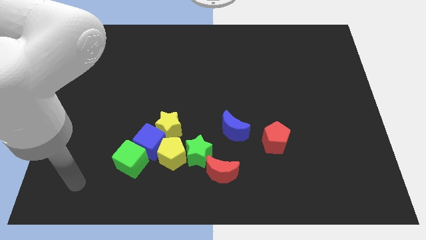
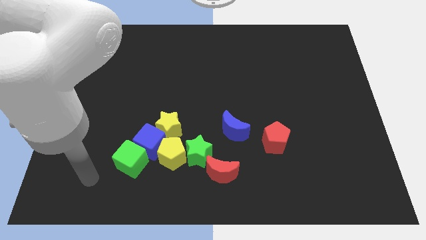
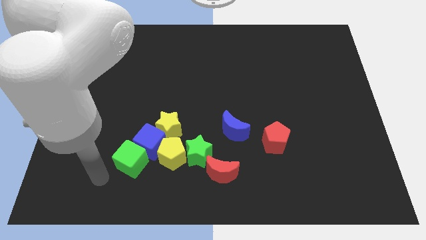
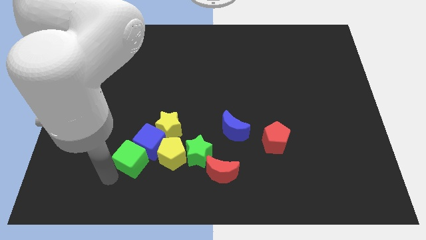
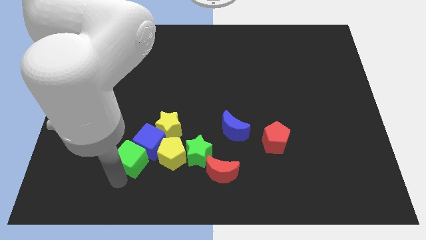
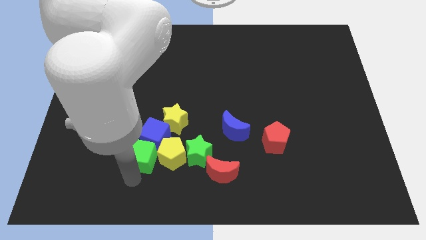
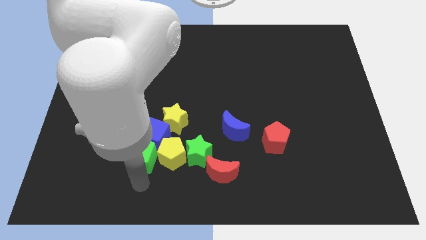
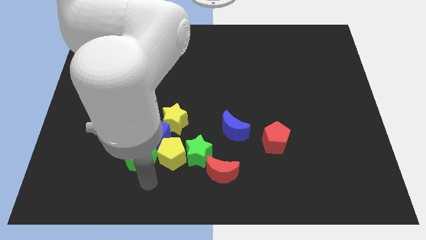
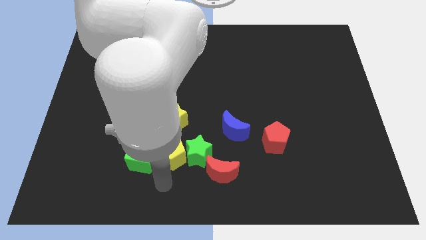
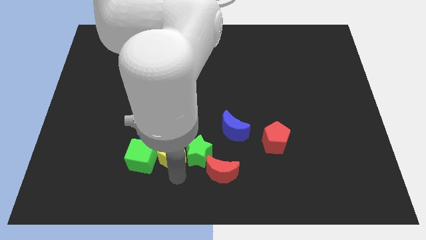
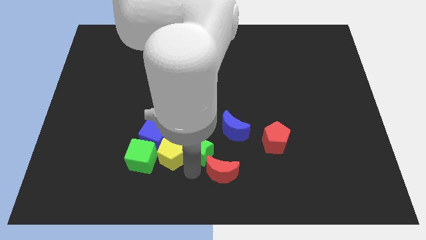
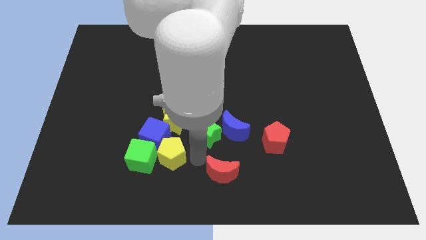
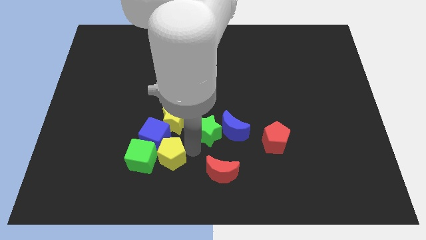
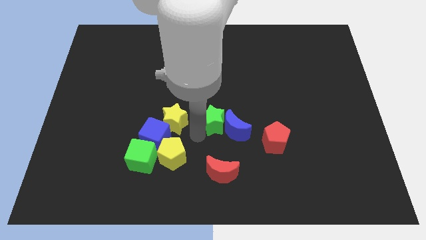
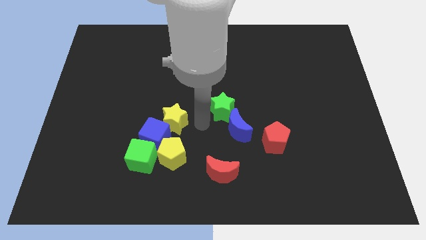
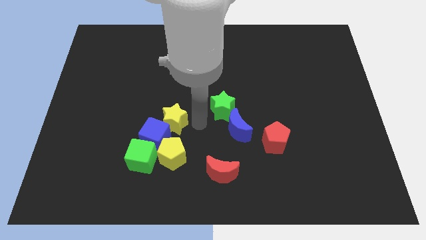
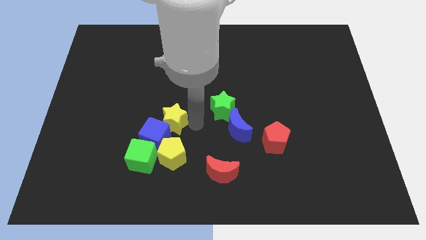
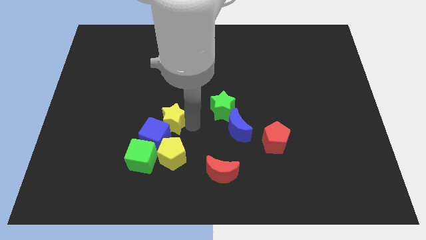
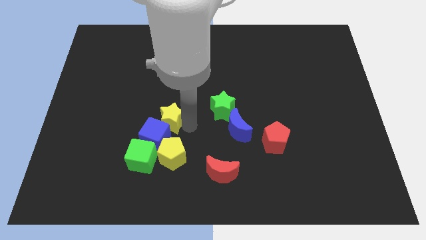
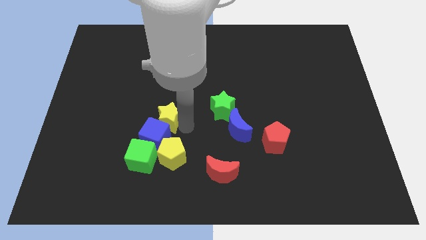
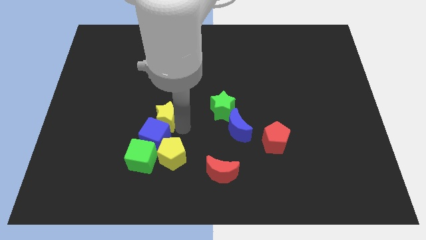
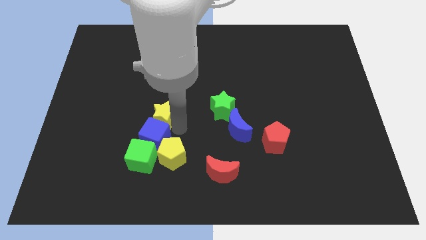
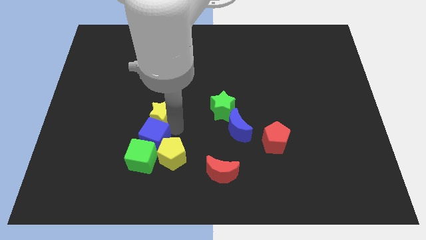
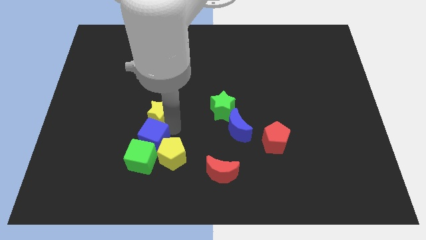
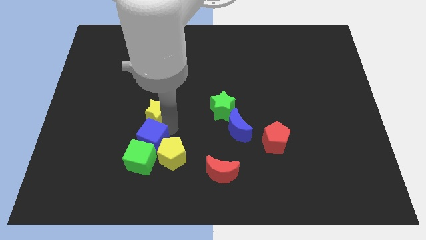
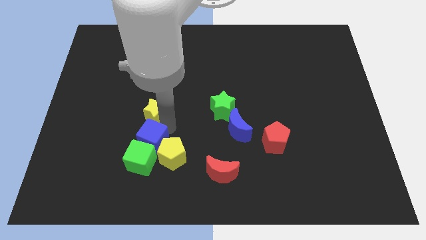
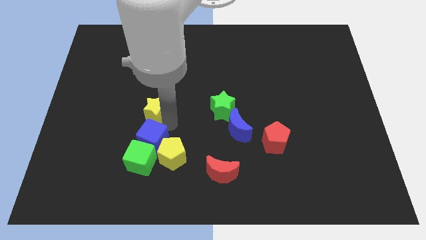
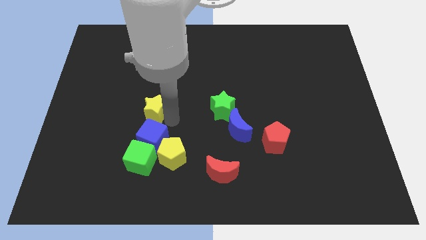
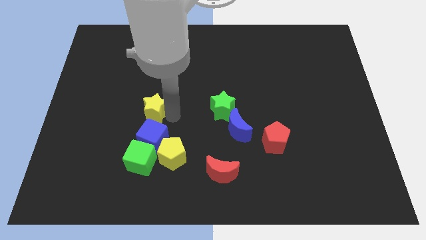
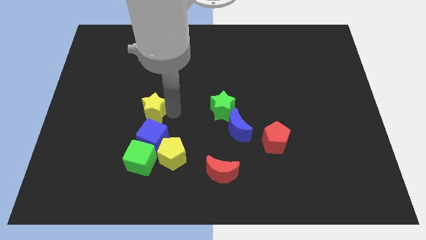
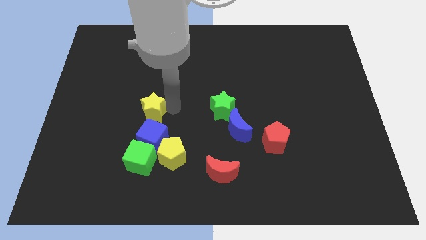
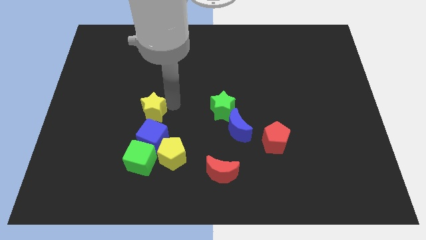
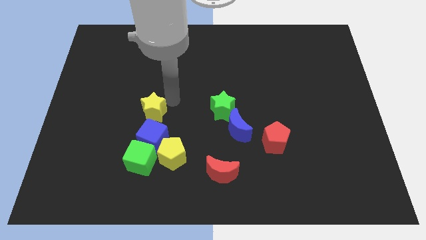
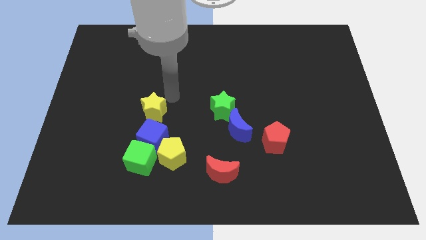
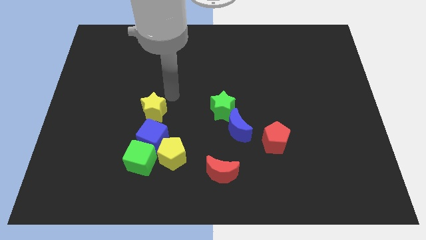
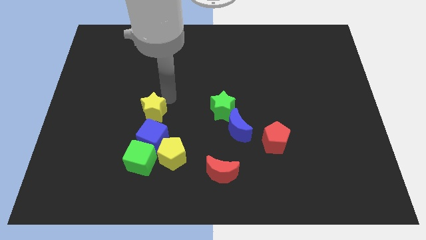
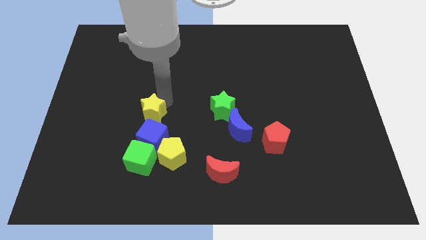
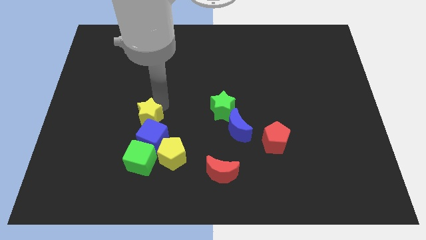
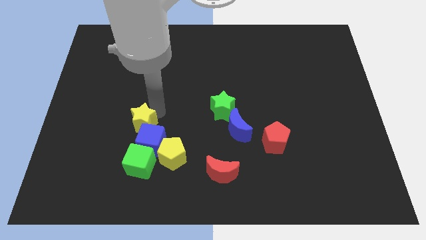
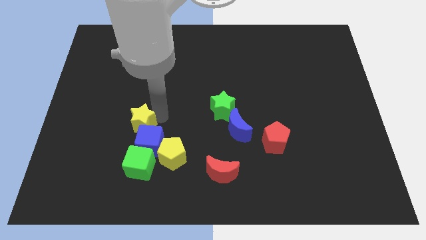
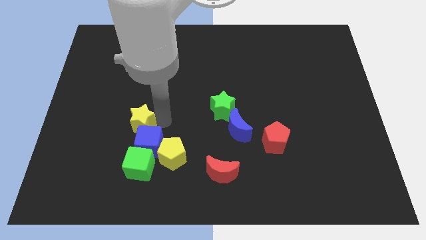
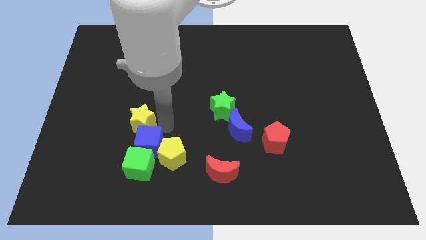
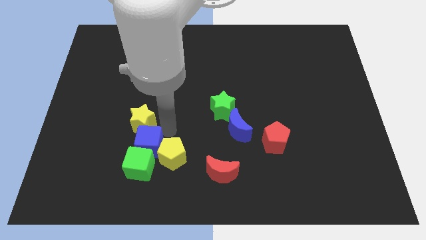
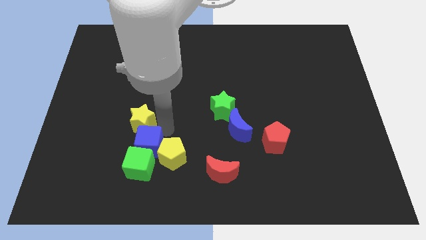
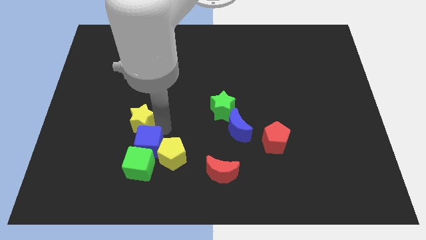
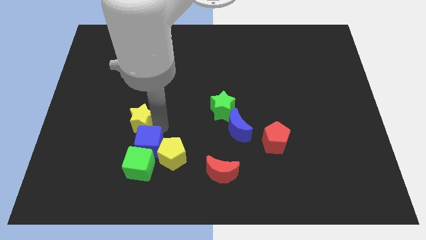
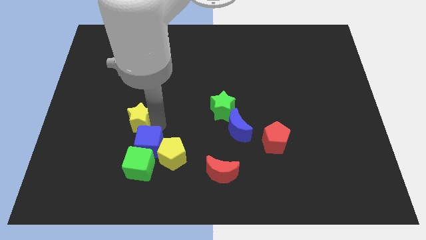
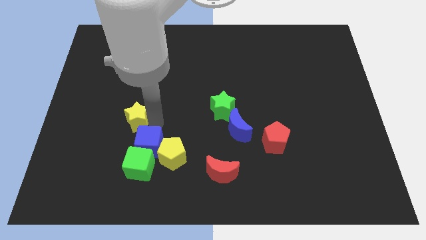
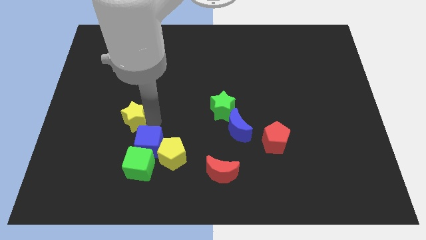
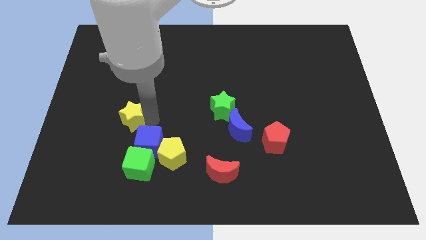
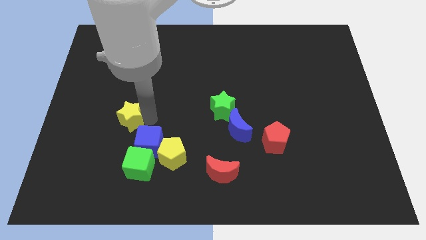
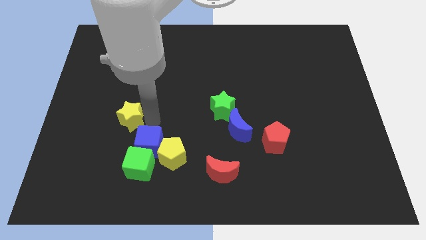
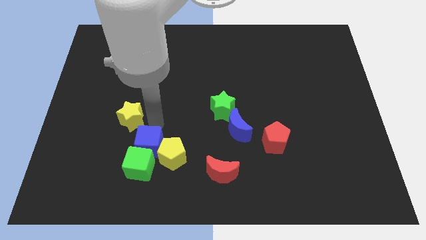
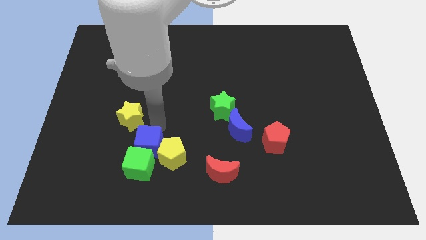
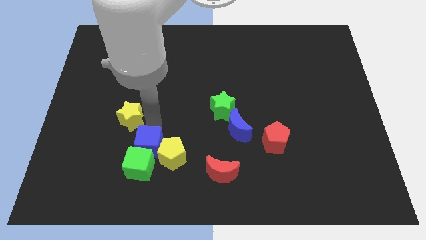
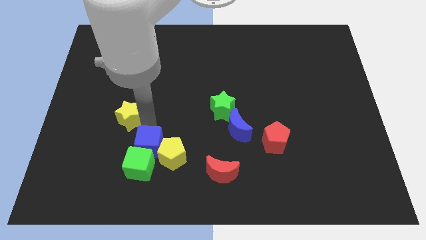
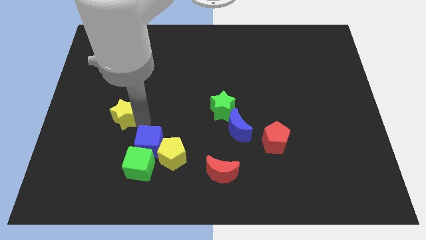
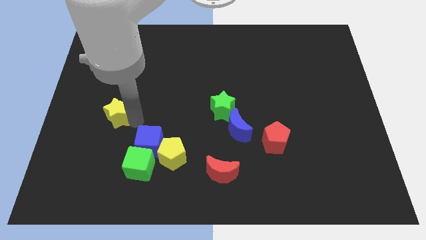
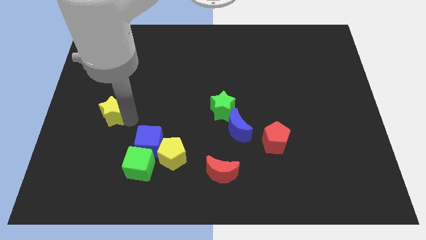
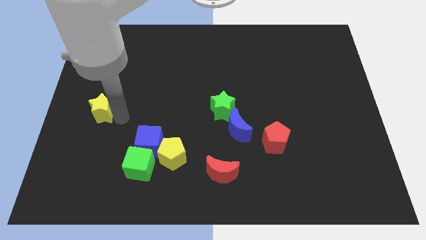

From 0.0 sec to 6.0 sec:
push the yellow star to the center left

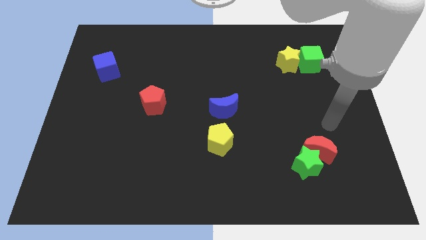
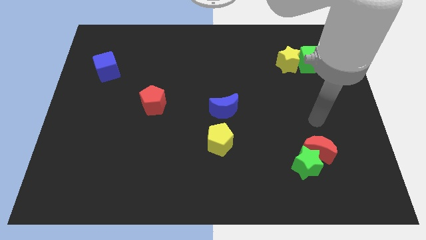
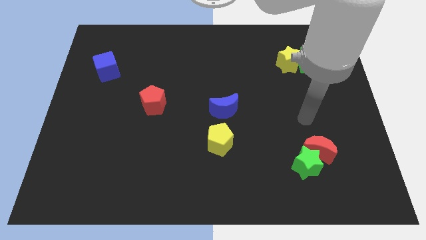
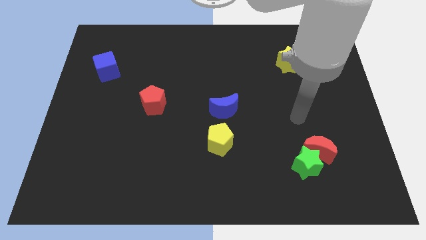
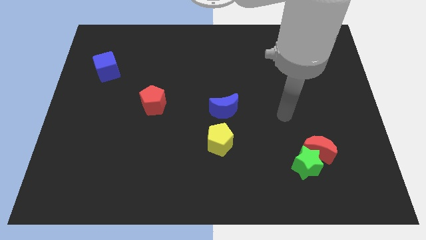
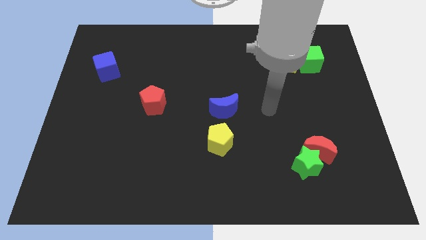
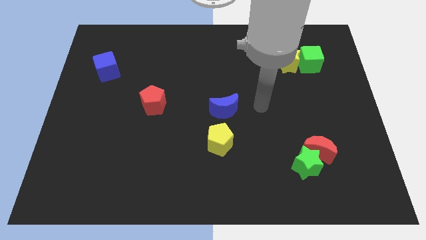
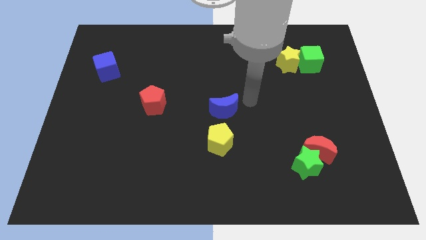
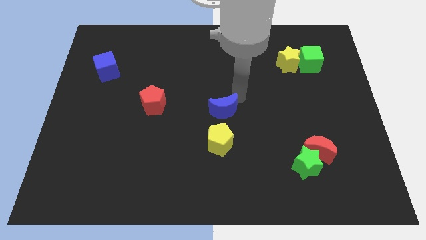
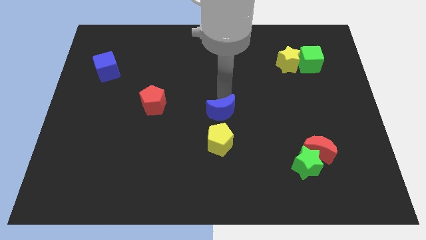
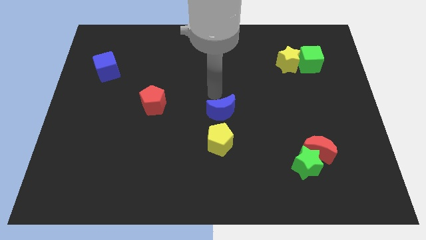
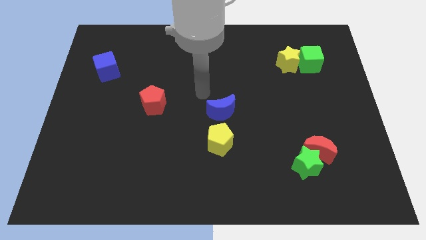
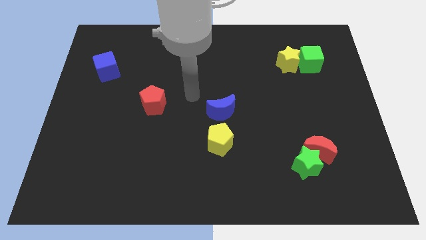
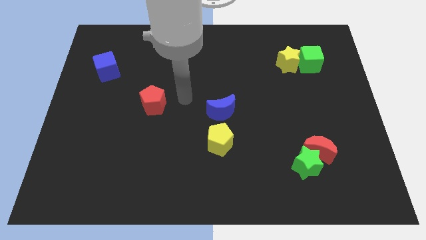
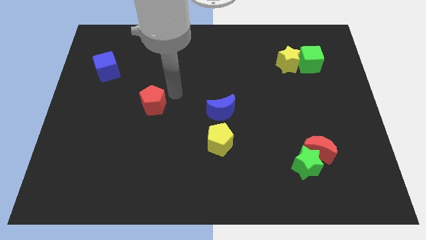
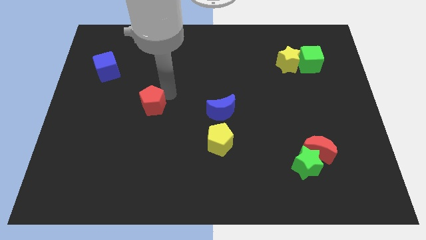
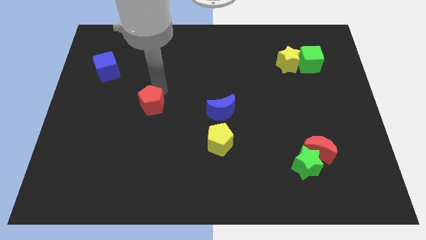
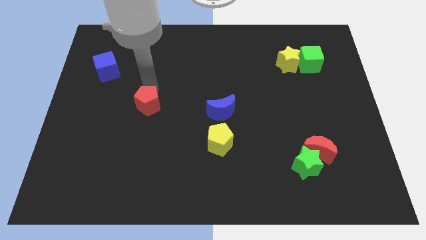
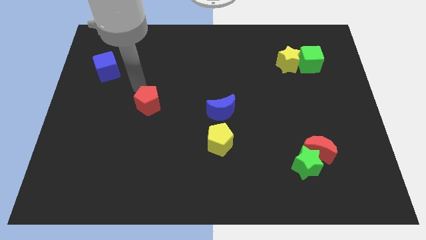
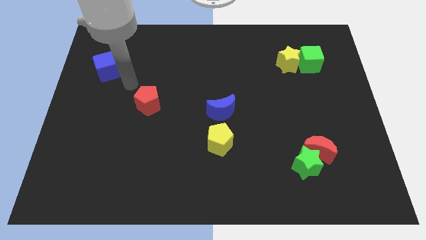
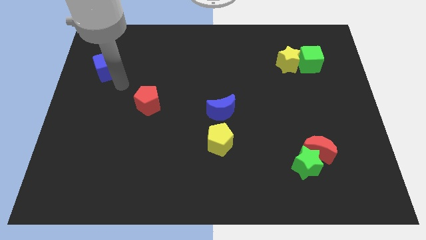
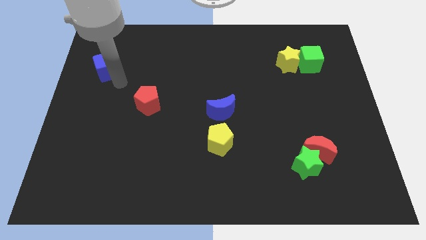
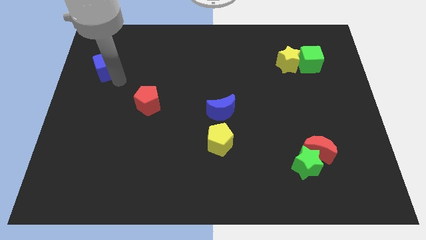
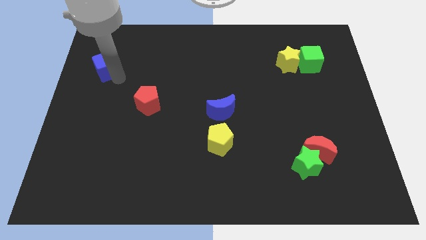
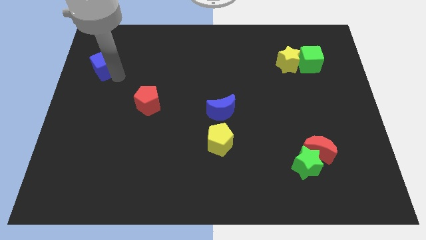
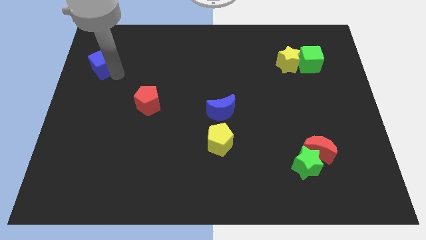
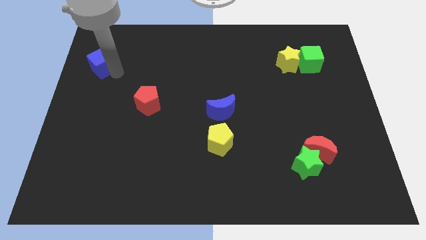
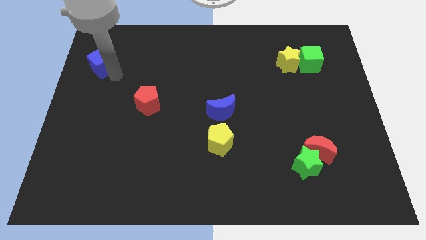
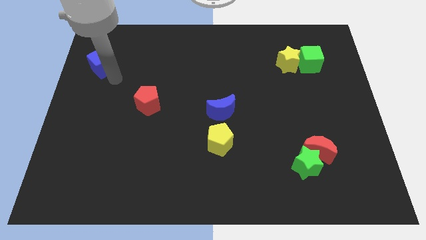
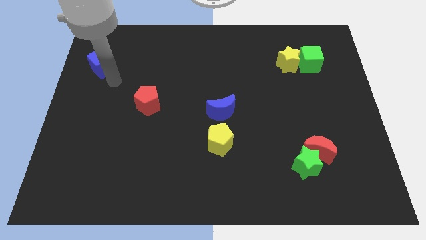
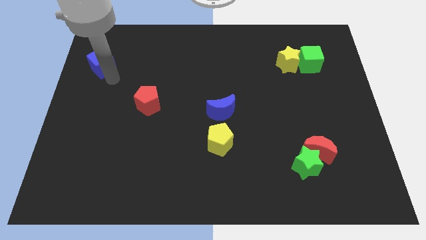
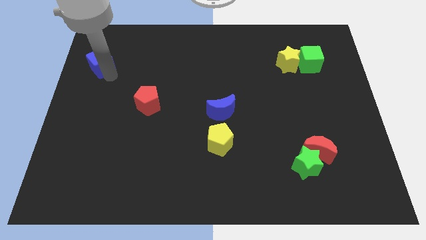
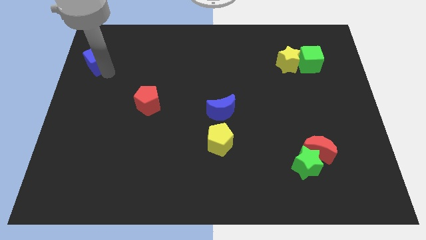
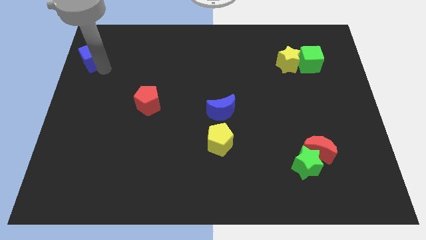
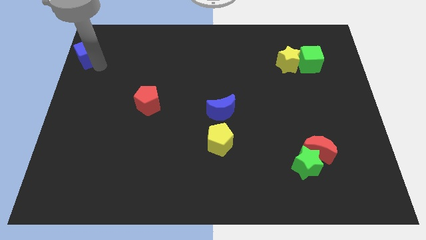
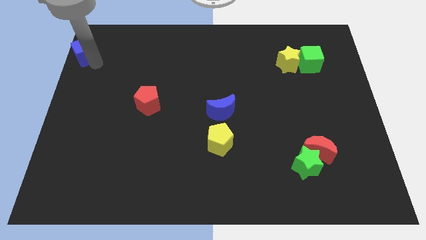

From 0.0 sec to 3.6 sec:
put the blue cube to the top left
